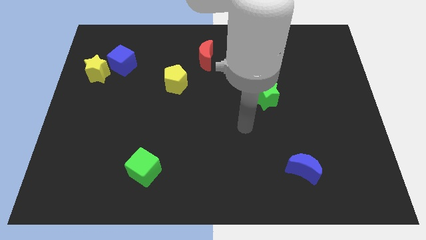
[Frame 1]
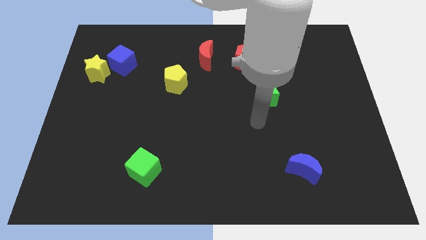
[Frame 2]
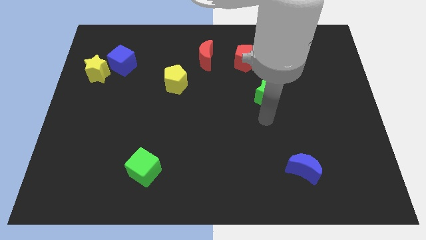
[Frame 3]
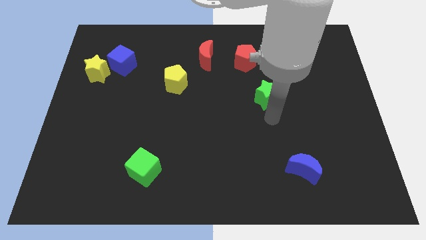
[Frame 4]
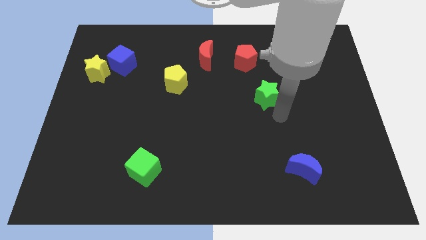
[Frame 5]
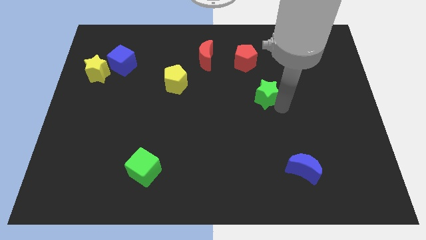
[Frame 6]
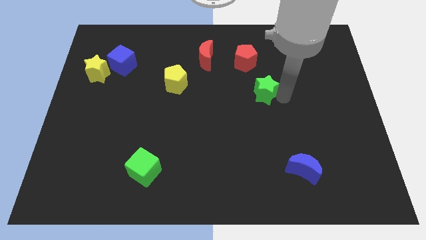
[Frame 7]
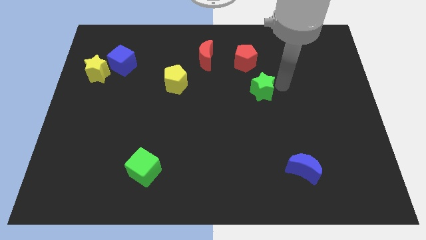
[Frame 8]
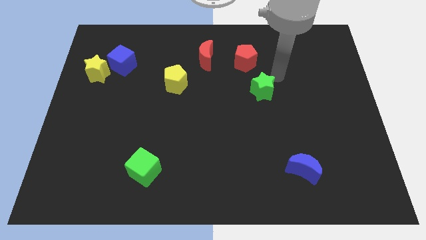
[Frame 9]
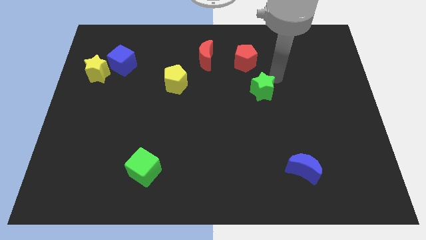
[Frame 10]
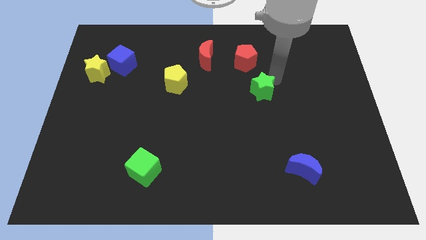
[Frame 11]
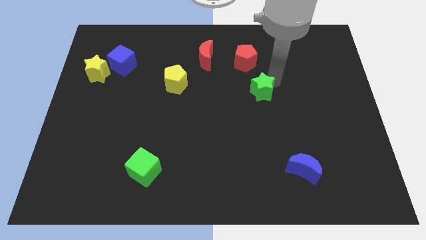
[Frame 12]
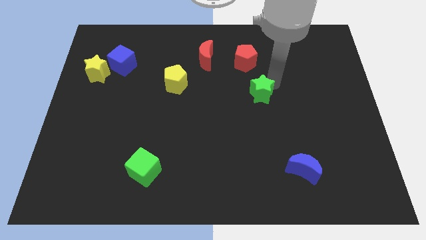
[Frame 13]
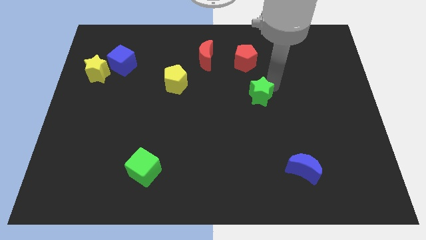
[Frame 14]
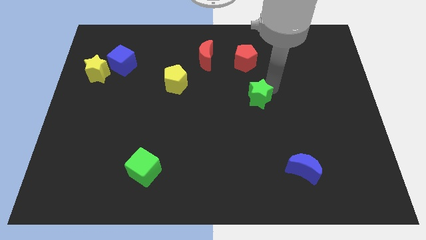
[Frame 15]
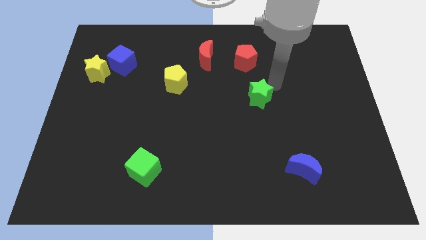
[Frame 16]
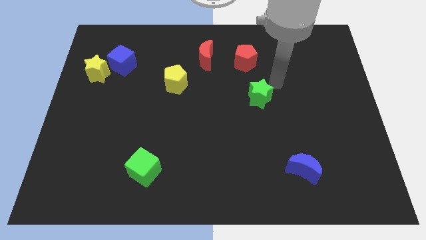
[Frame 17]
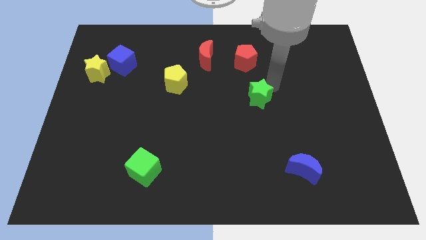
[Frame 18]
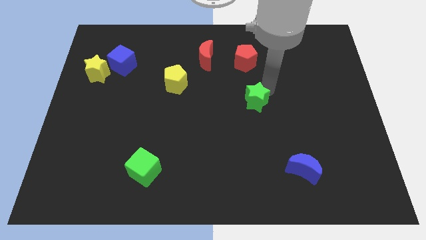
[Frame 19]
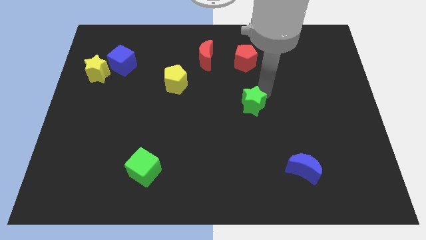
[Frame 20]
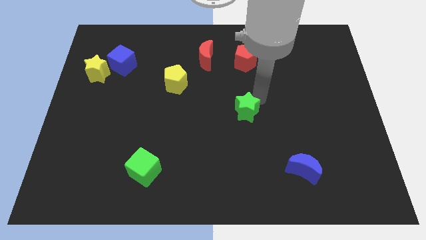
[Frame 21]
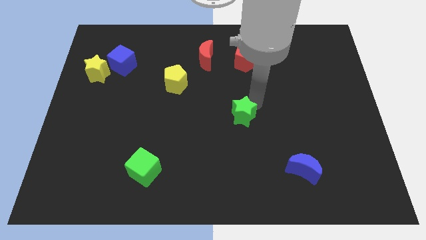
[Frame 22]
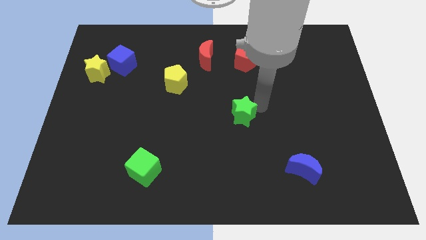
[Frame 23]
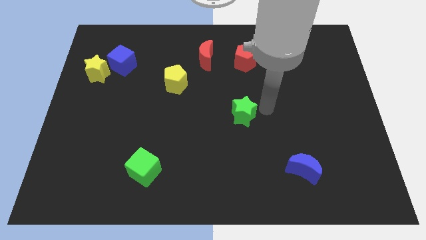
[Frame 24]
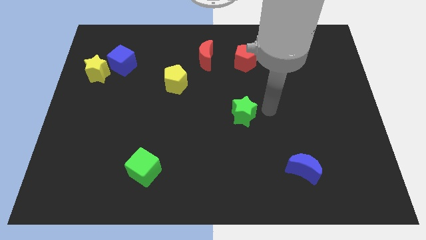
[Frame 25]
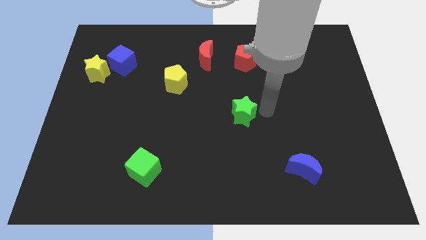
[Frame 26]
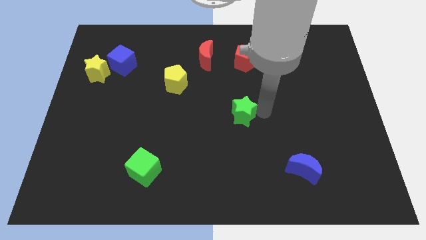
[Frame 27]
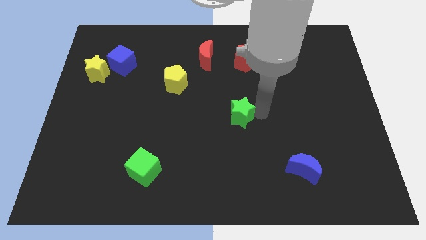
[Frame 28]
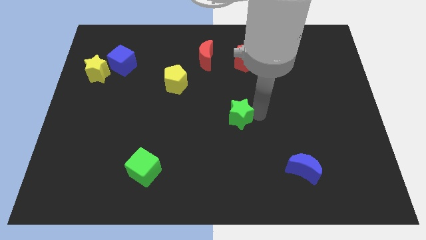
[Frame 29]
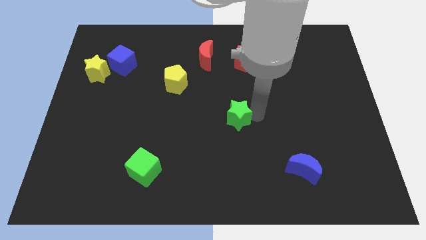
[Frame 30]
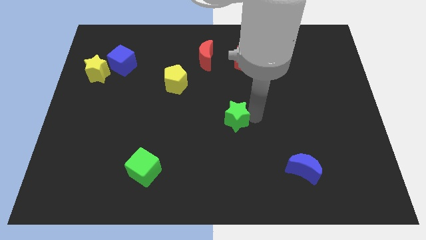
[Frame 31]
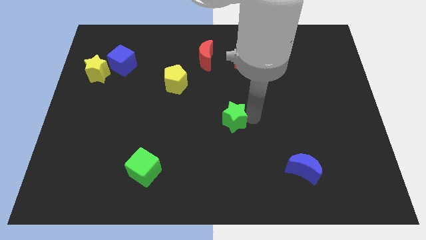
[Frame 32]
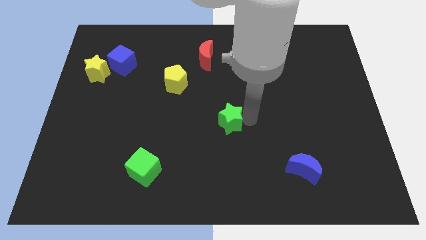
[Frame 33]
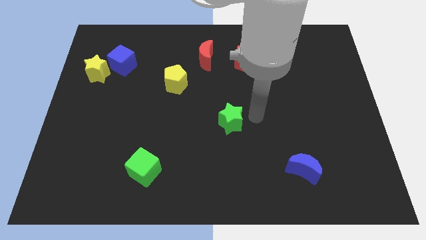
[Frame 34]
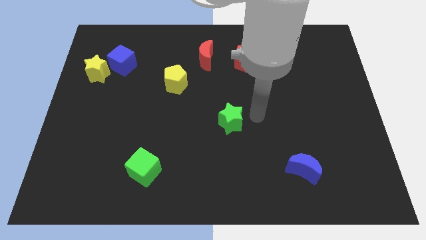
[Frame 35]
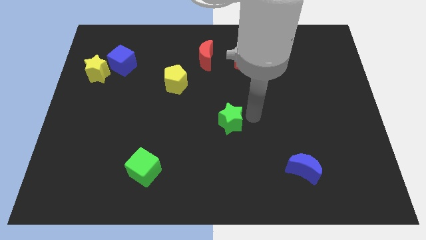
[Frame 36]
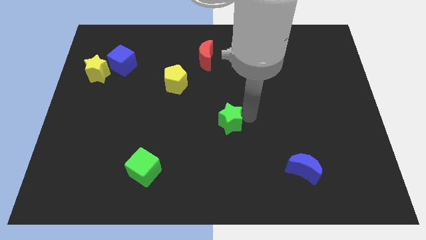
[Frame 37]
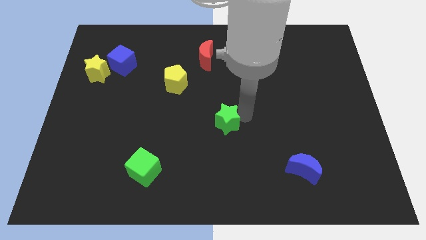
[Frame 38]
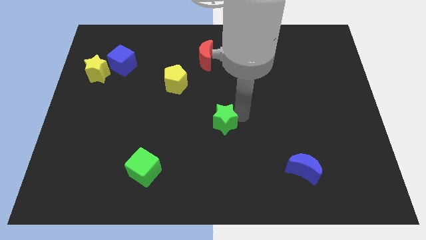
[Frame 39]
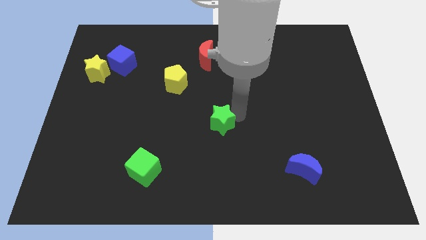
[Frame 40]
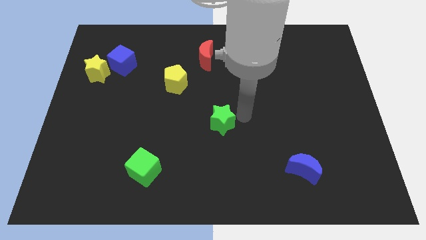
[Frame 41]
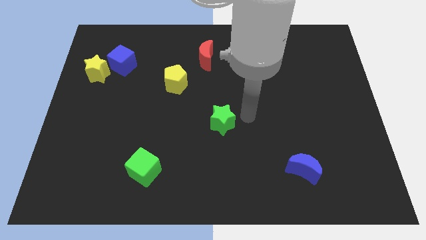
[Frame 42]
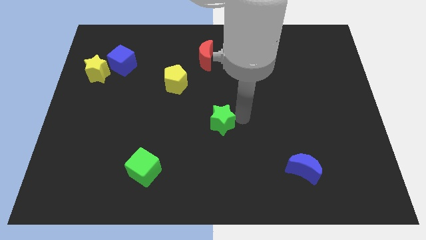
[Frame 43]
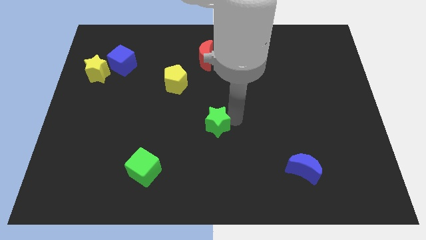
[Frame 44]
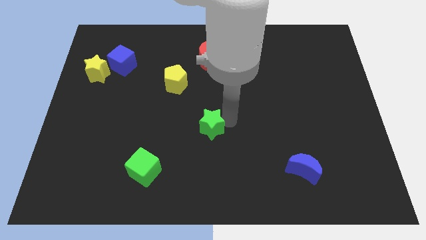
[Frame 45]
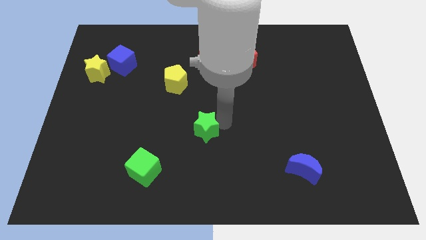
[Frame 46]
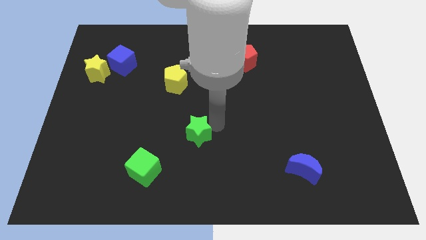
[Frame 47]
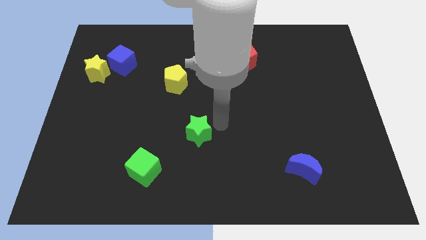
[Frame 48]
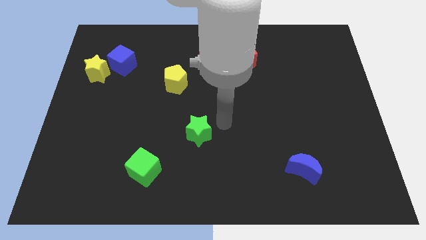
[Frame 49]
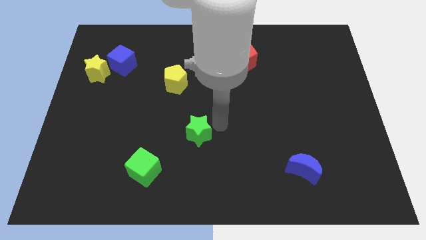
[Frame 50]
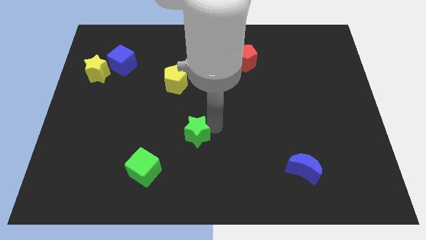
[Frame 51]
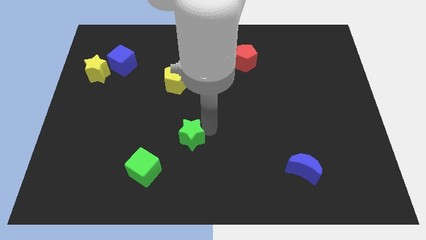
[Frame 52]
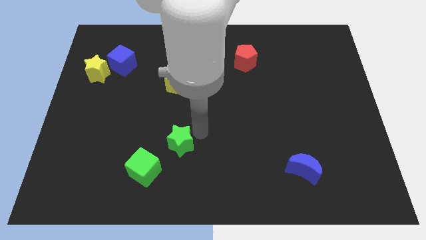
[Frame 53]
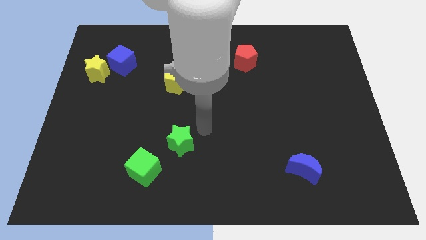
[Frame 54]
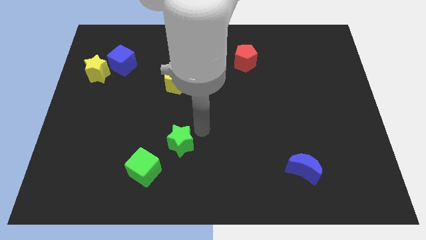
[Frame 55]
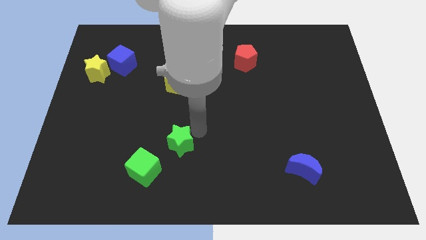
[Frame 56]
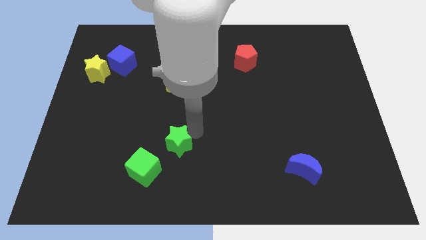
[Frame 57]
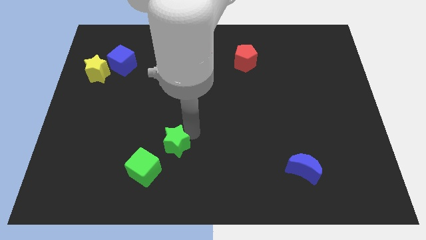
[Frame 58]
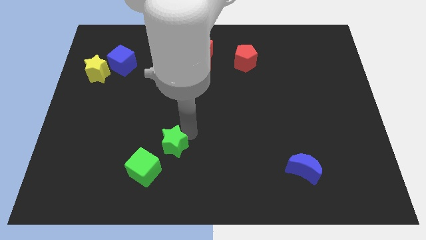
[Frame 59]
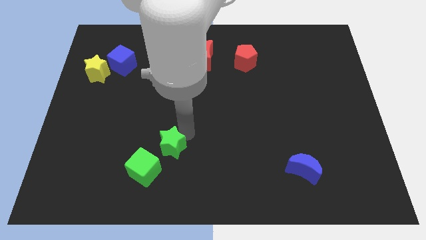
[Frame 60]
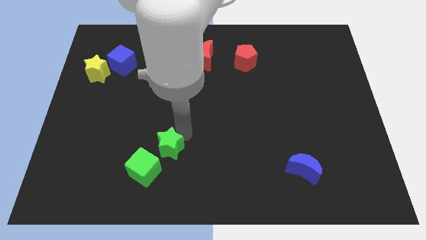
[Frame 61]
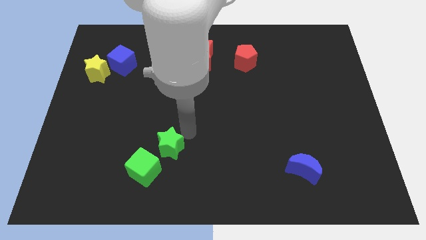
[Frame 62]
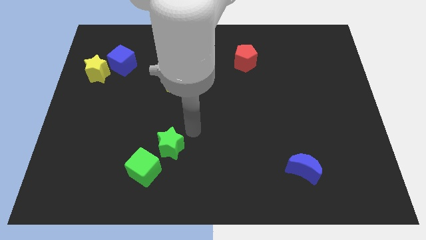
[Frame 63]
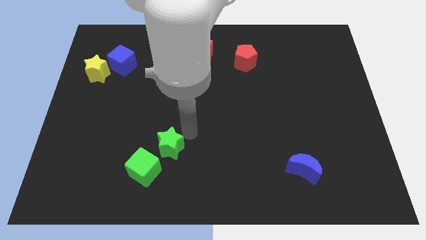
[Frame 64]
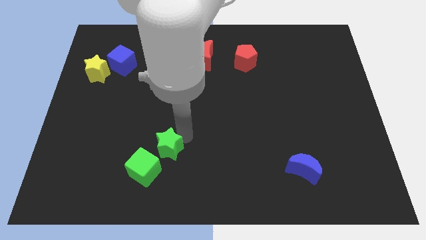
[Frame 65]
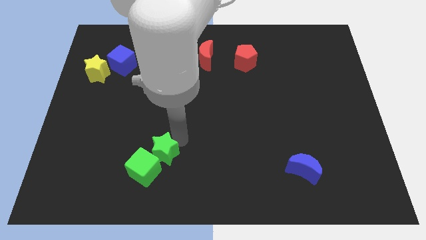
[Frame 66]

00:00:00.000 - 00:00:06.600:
slide the green star close to the green cube
